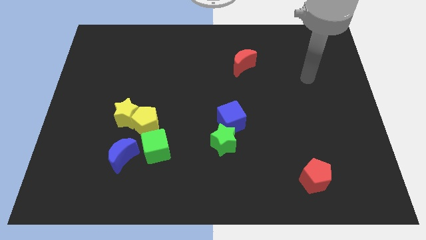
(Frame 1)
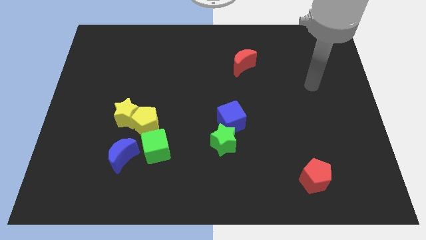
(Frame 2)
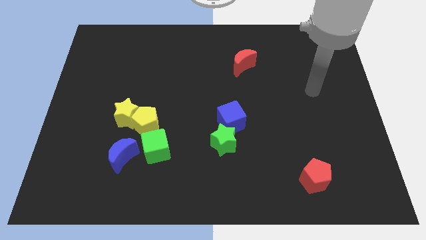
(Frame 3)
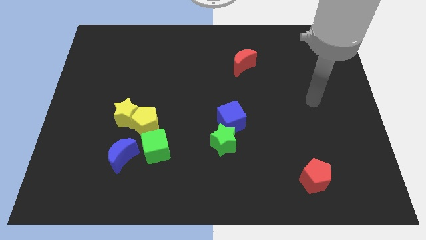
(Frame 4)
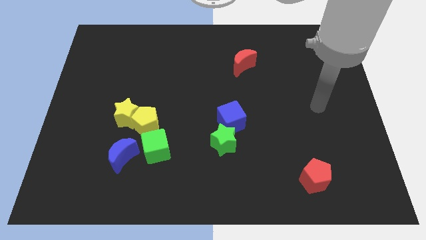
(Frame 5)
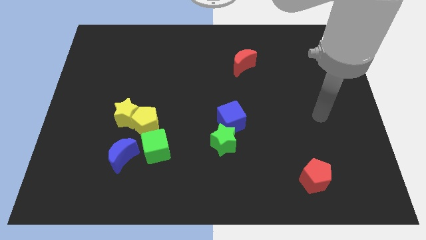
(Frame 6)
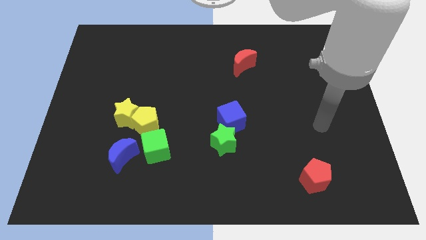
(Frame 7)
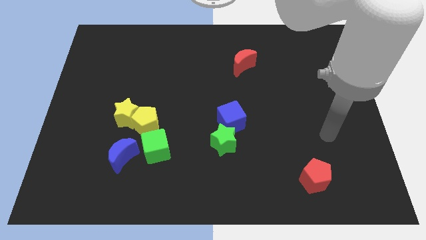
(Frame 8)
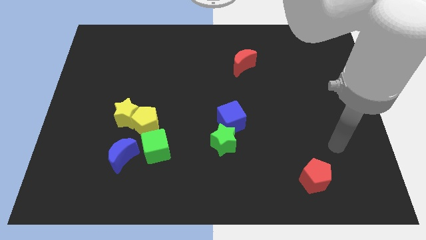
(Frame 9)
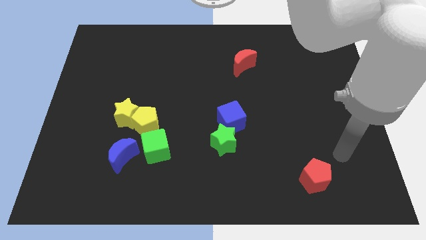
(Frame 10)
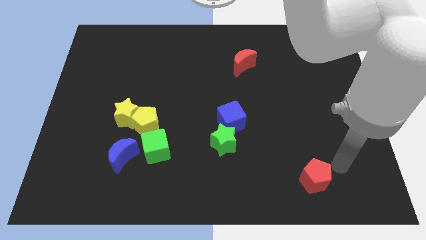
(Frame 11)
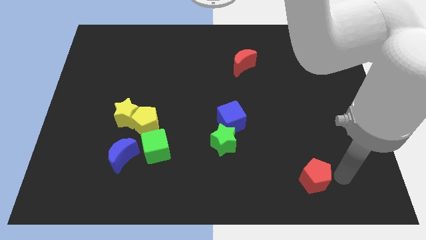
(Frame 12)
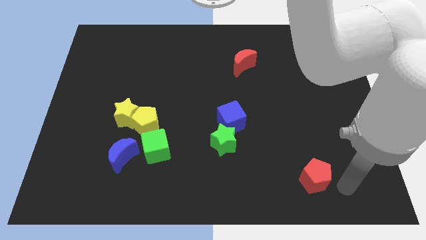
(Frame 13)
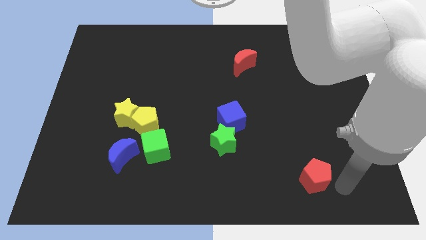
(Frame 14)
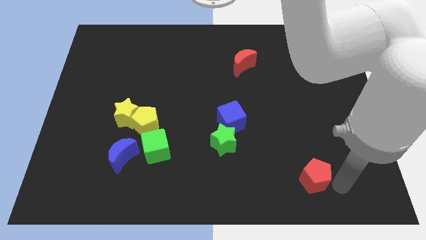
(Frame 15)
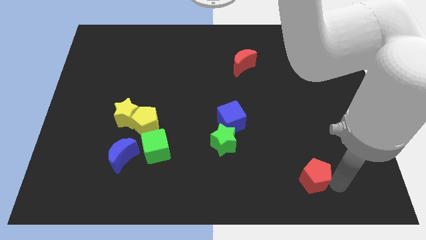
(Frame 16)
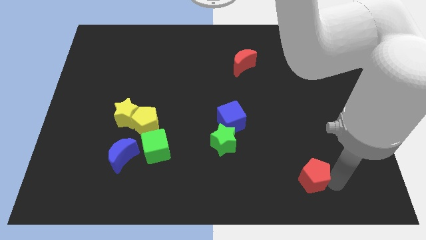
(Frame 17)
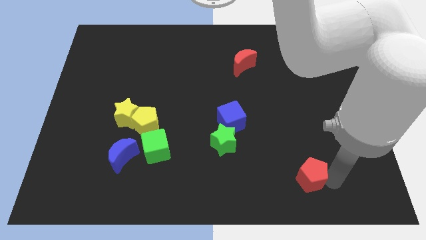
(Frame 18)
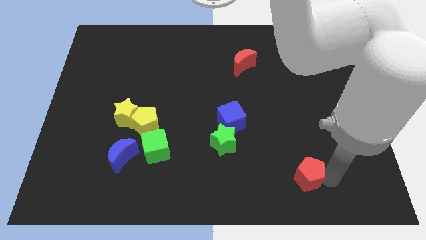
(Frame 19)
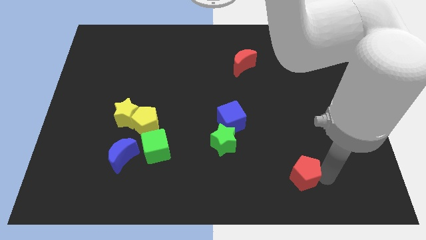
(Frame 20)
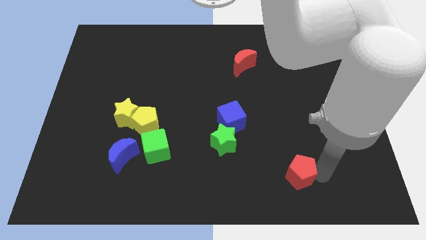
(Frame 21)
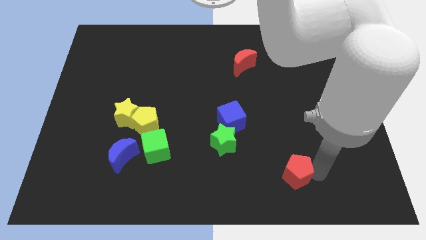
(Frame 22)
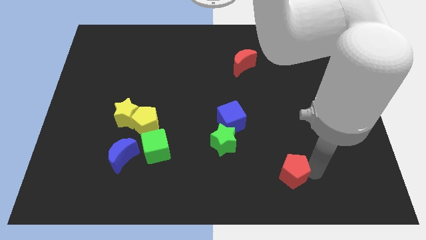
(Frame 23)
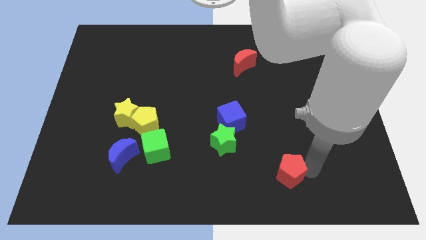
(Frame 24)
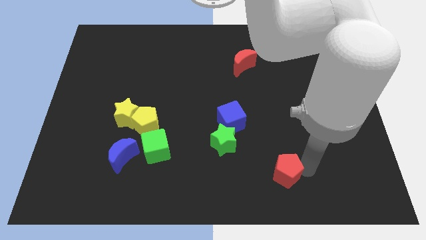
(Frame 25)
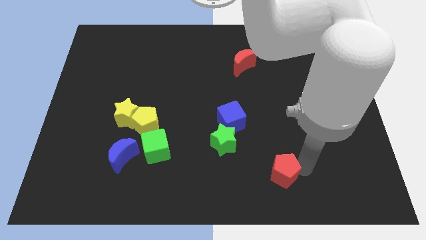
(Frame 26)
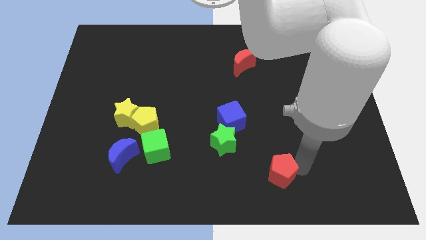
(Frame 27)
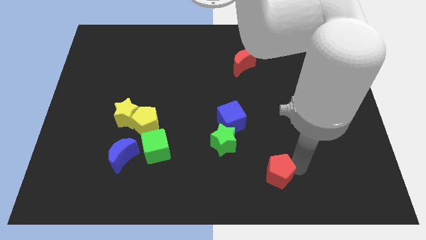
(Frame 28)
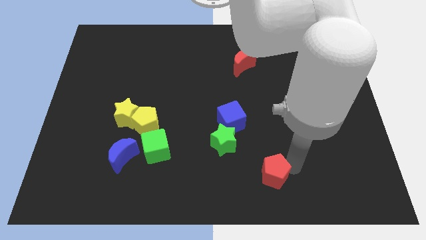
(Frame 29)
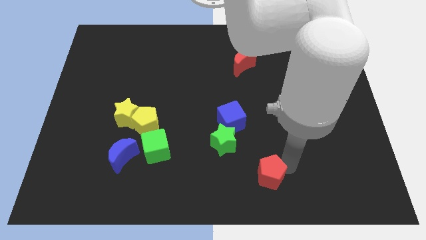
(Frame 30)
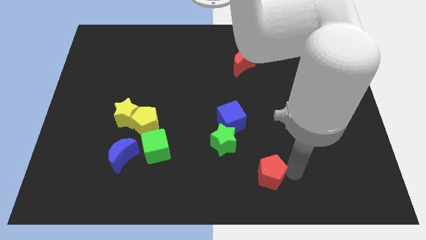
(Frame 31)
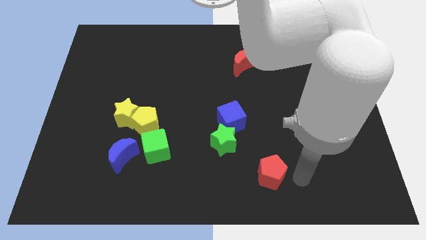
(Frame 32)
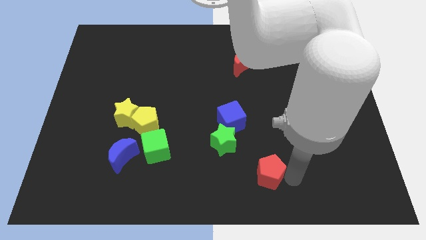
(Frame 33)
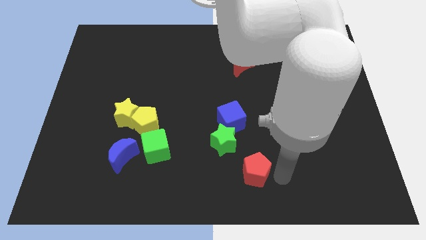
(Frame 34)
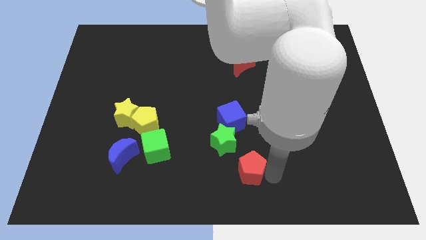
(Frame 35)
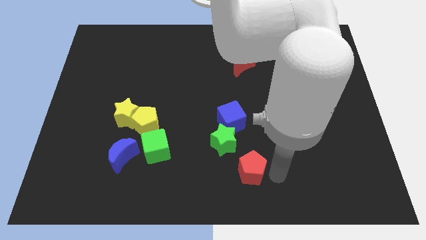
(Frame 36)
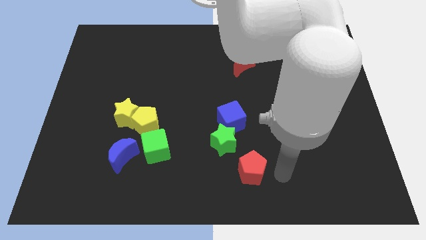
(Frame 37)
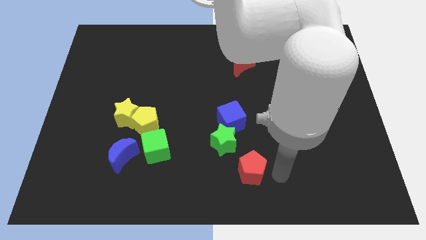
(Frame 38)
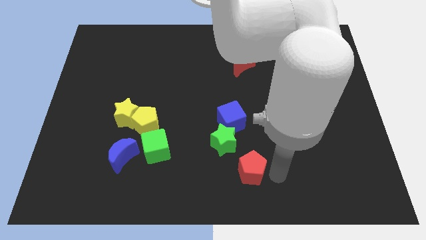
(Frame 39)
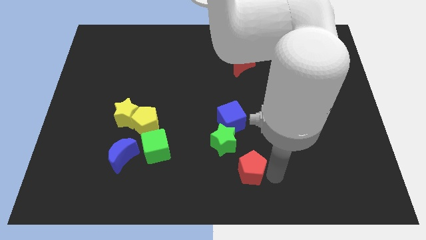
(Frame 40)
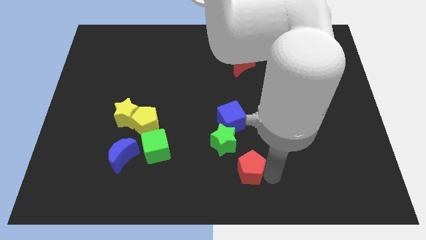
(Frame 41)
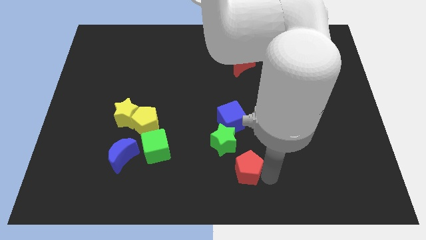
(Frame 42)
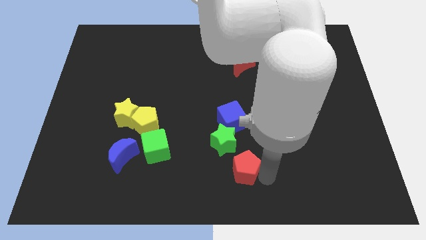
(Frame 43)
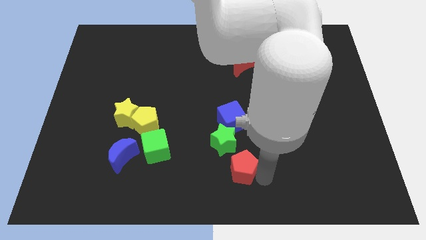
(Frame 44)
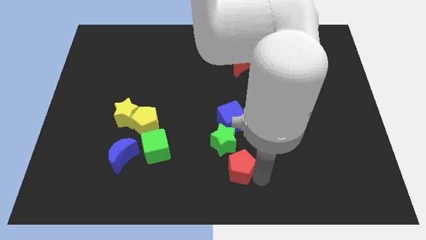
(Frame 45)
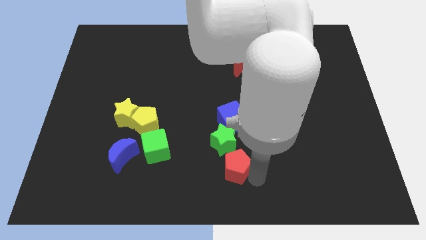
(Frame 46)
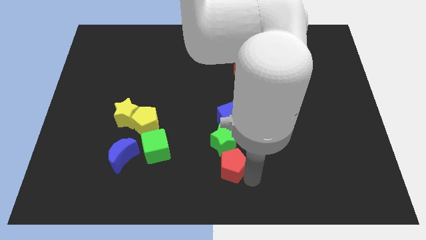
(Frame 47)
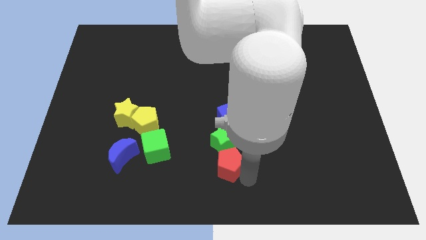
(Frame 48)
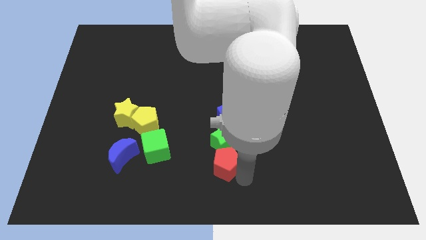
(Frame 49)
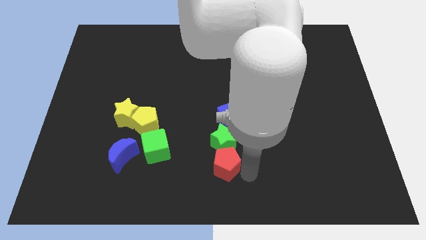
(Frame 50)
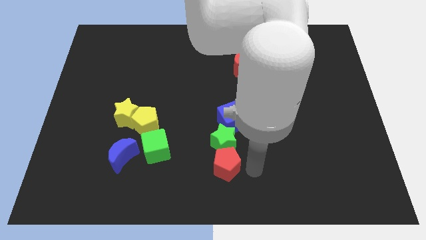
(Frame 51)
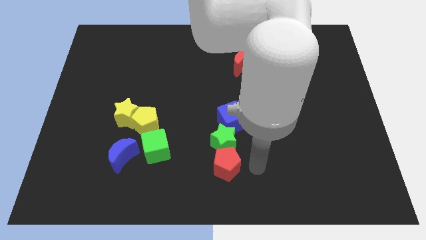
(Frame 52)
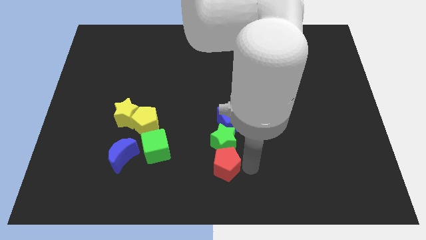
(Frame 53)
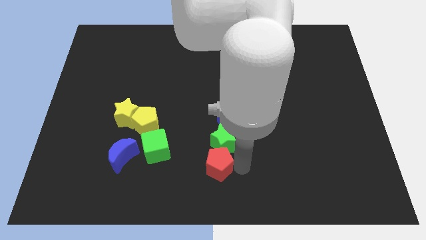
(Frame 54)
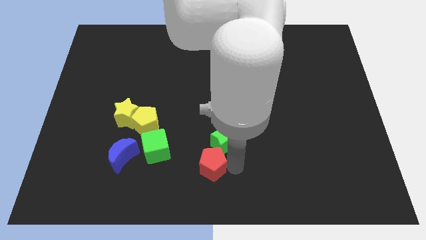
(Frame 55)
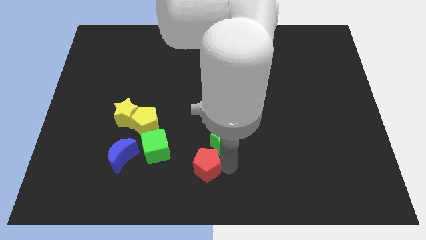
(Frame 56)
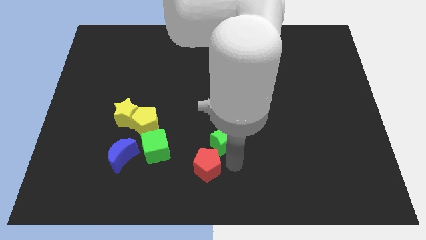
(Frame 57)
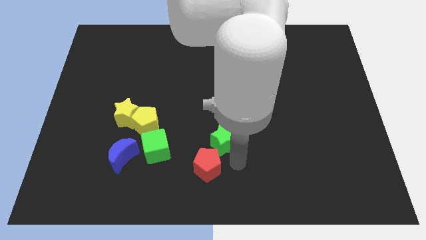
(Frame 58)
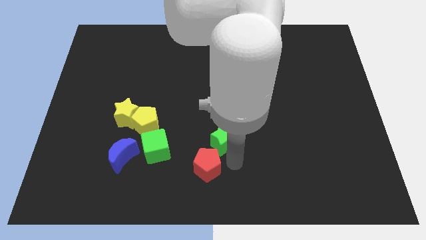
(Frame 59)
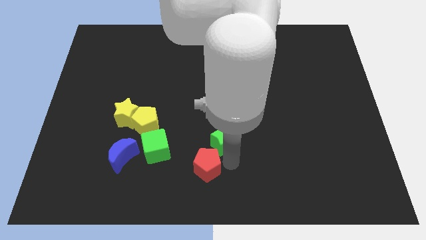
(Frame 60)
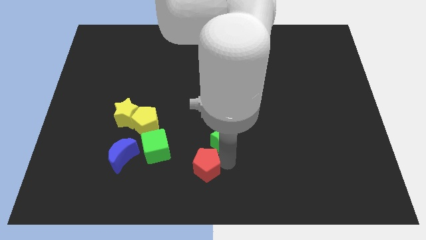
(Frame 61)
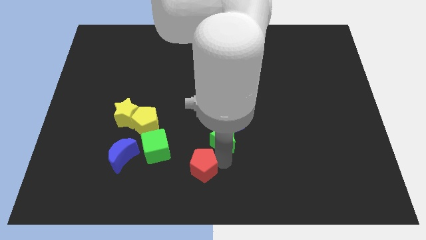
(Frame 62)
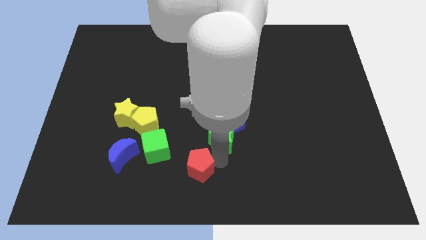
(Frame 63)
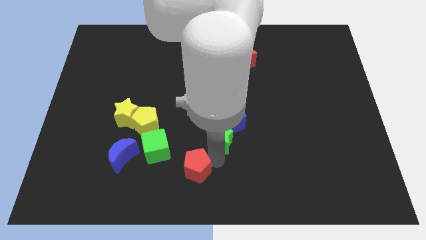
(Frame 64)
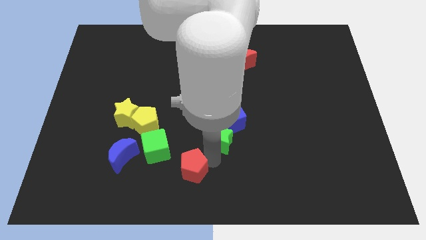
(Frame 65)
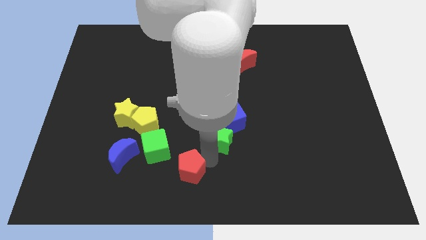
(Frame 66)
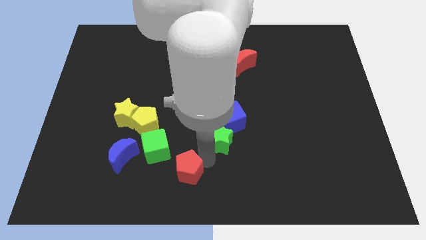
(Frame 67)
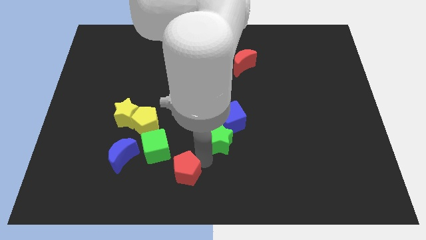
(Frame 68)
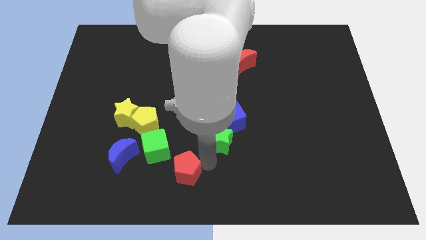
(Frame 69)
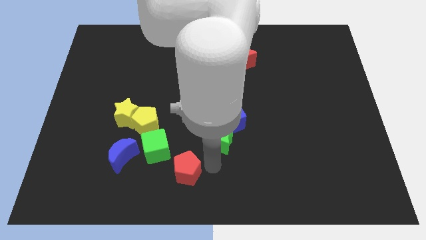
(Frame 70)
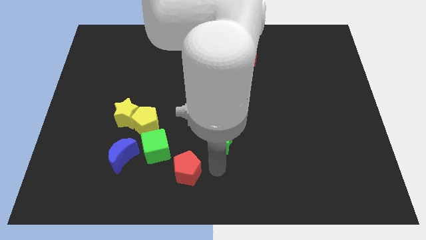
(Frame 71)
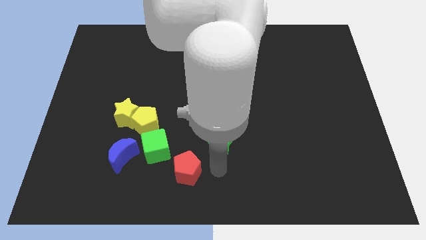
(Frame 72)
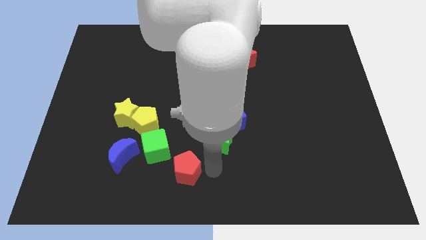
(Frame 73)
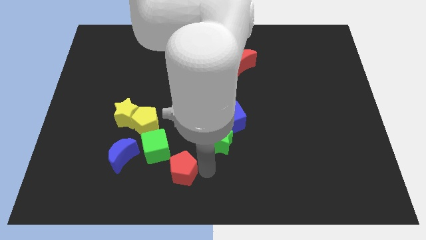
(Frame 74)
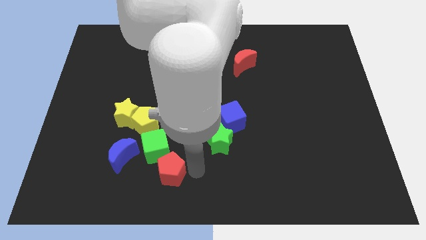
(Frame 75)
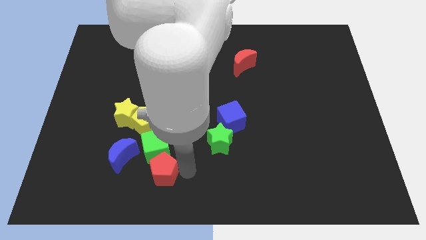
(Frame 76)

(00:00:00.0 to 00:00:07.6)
slide the red pentagon diagonally down and to the right of the blue moon
